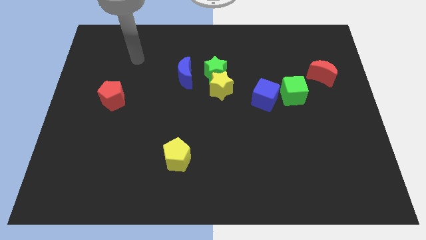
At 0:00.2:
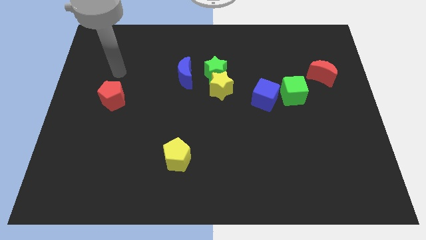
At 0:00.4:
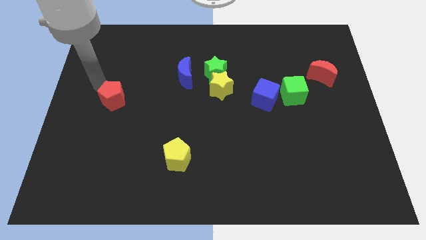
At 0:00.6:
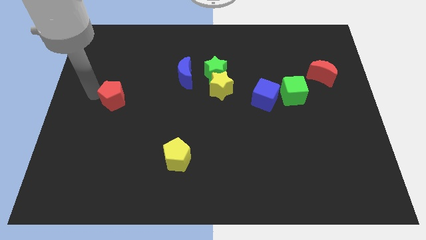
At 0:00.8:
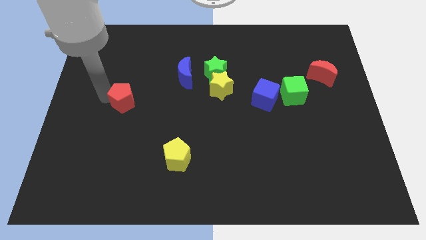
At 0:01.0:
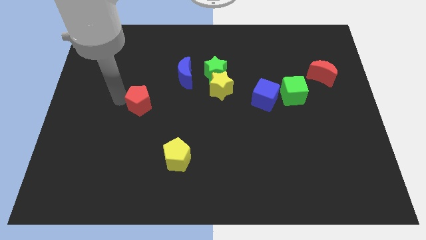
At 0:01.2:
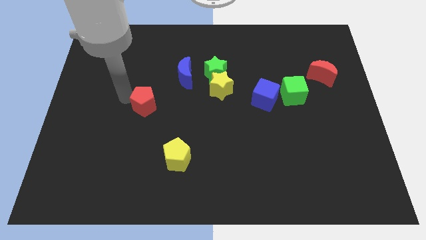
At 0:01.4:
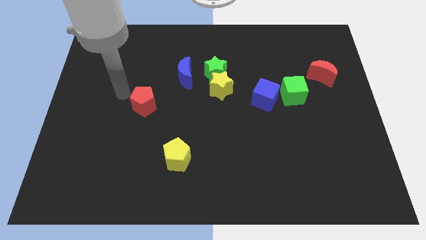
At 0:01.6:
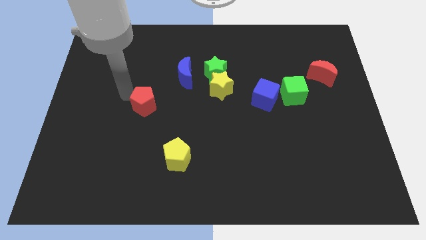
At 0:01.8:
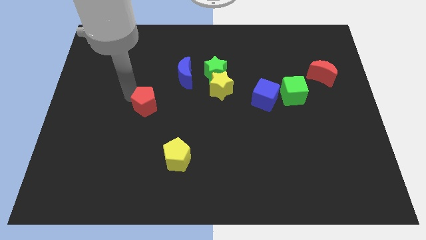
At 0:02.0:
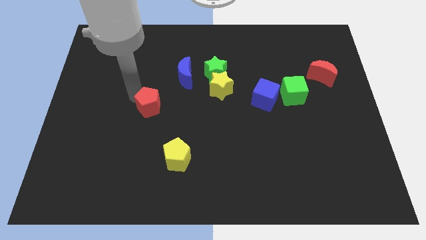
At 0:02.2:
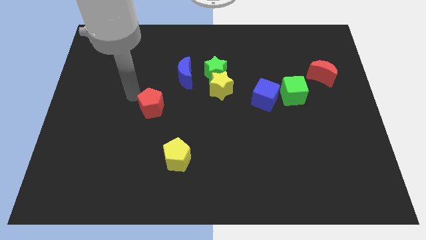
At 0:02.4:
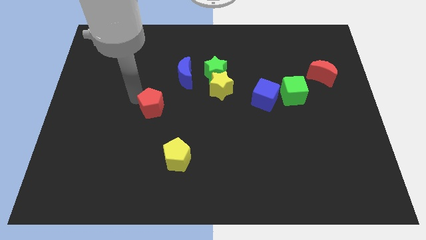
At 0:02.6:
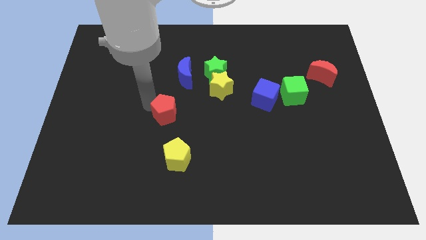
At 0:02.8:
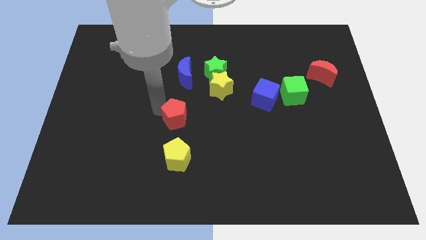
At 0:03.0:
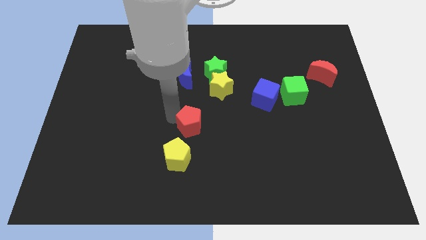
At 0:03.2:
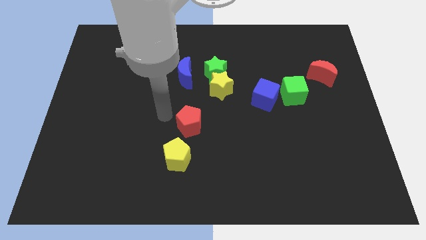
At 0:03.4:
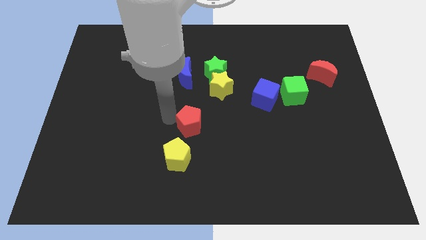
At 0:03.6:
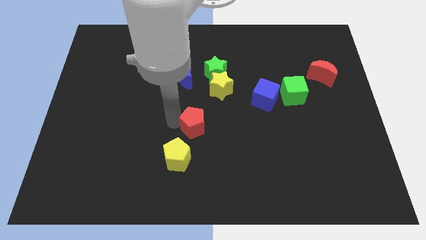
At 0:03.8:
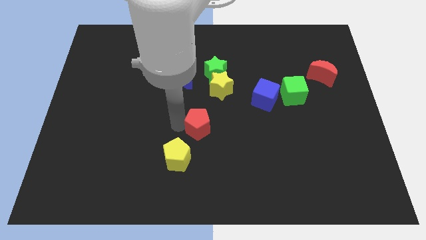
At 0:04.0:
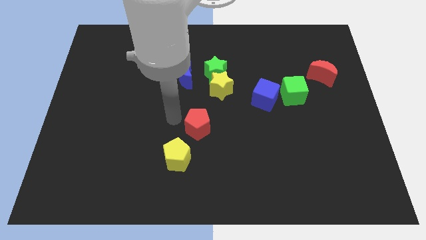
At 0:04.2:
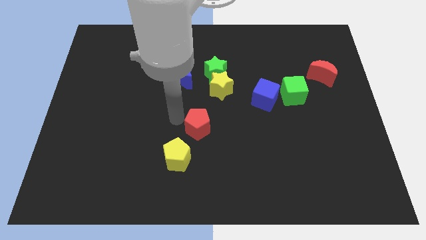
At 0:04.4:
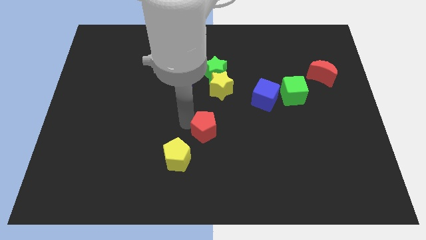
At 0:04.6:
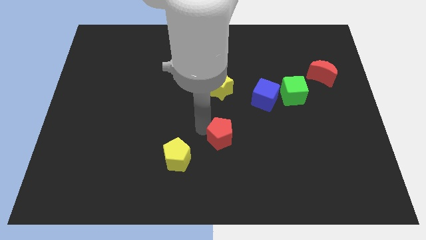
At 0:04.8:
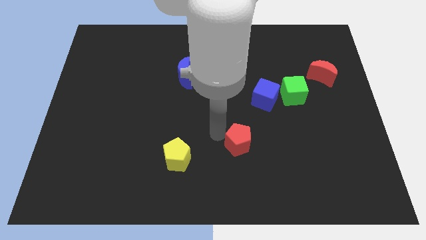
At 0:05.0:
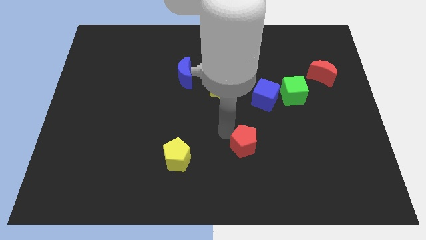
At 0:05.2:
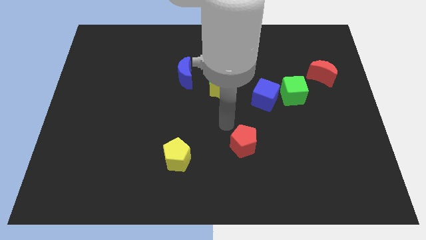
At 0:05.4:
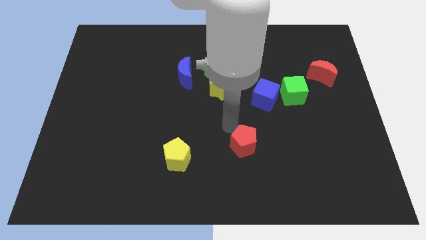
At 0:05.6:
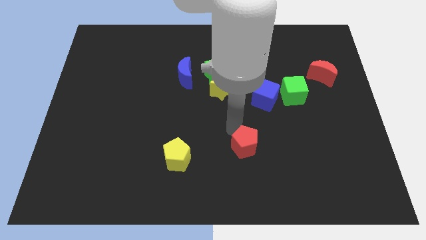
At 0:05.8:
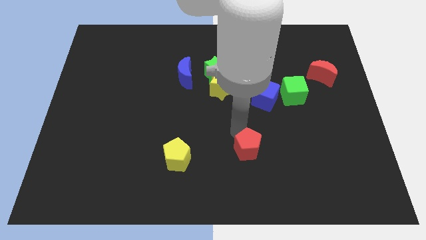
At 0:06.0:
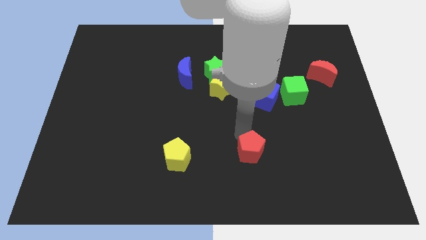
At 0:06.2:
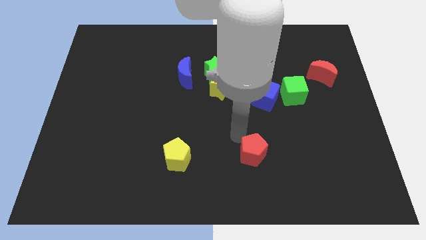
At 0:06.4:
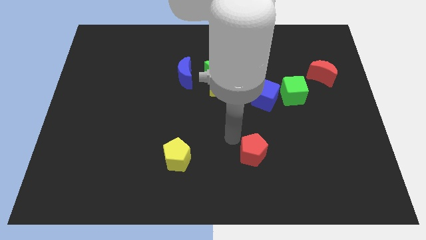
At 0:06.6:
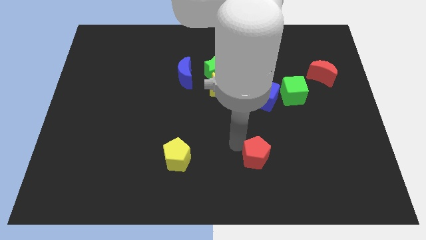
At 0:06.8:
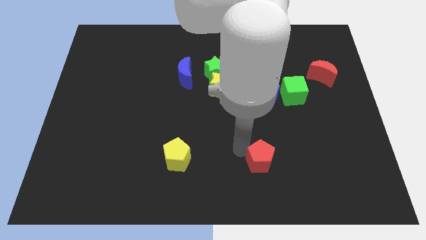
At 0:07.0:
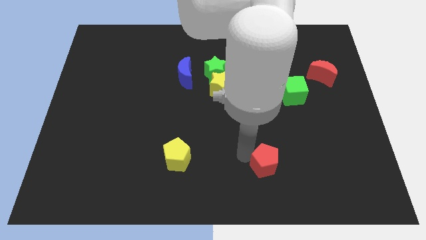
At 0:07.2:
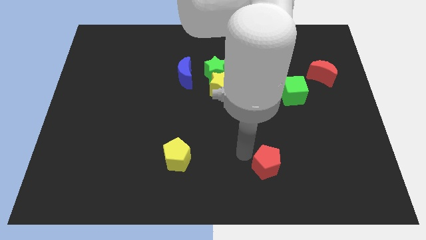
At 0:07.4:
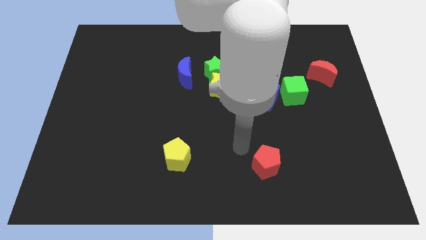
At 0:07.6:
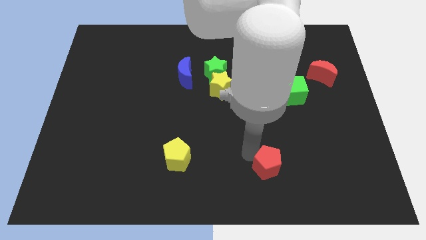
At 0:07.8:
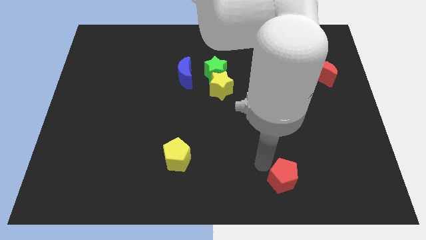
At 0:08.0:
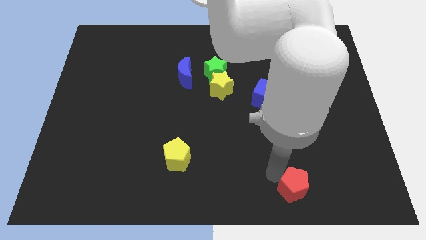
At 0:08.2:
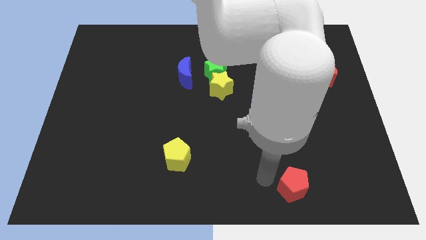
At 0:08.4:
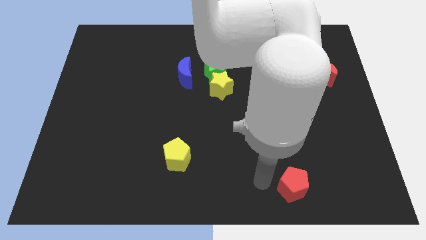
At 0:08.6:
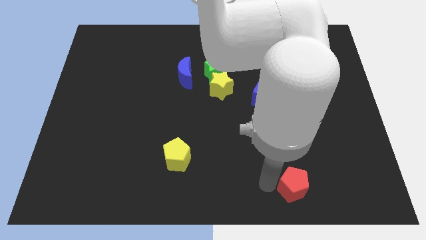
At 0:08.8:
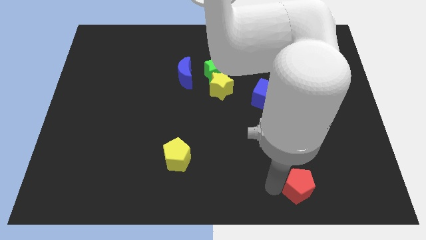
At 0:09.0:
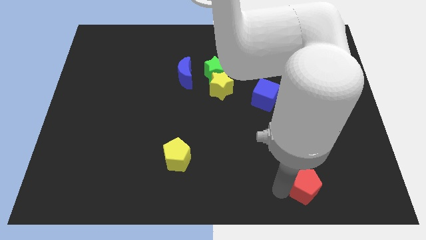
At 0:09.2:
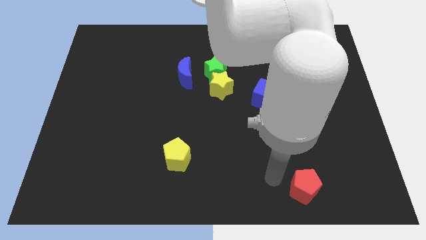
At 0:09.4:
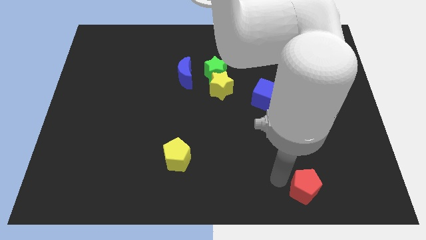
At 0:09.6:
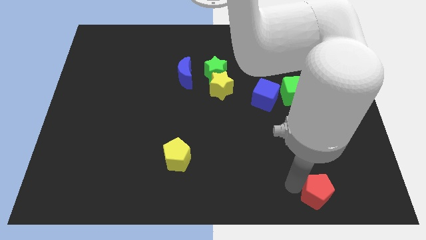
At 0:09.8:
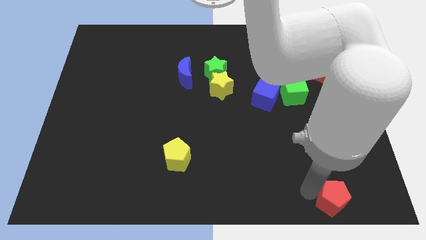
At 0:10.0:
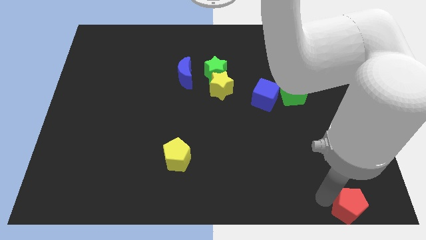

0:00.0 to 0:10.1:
push the red pentagon to the bottom right of the board

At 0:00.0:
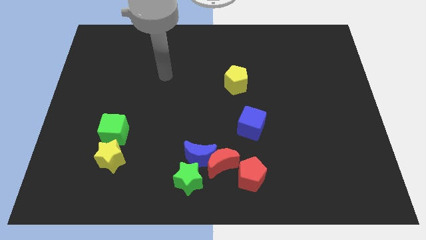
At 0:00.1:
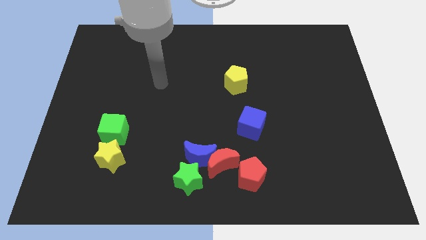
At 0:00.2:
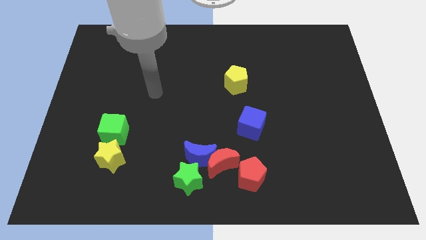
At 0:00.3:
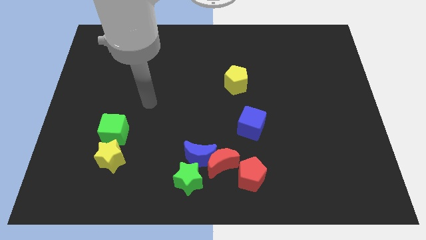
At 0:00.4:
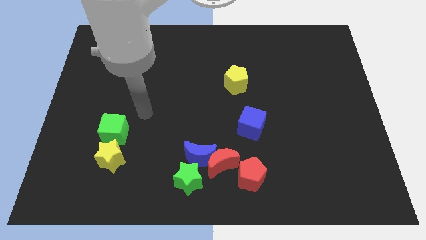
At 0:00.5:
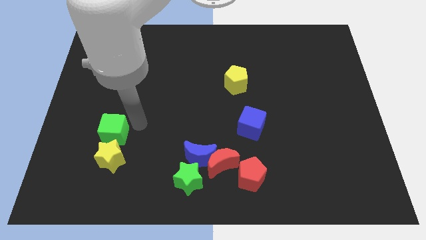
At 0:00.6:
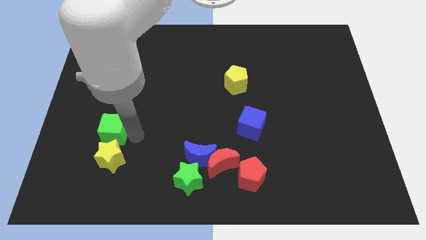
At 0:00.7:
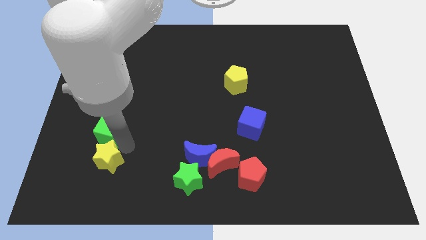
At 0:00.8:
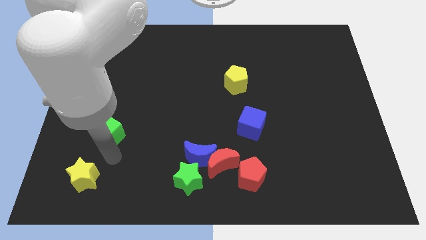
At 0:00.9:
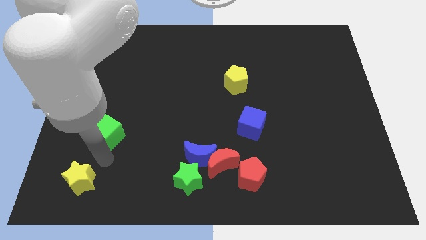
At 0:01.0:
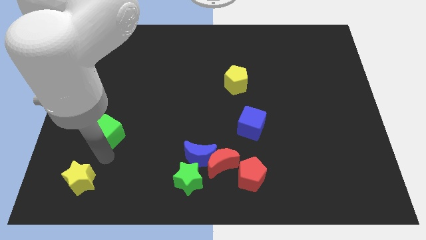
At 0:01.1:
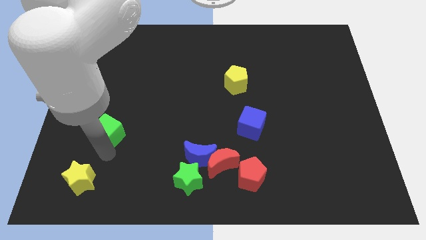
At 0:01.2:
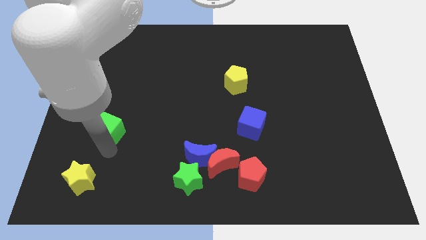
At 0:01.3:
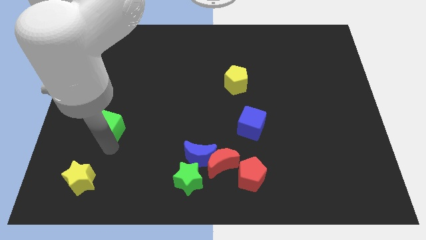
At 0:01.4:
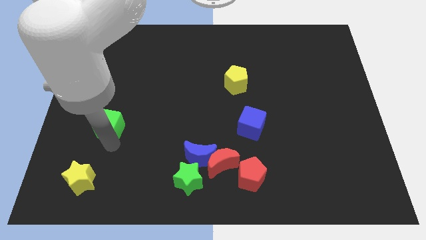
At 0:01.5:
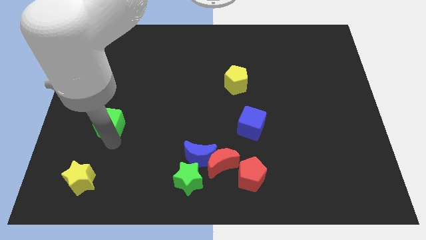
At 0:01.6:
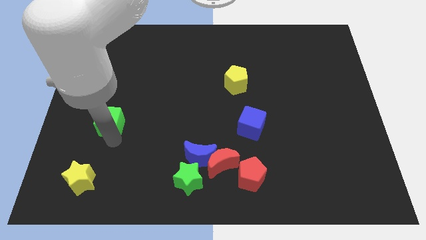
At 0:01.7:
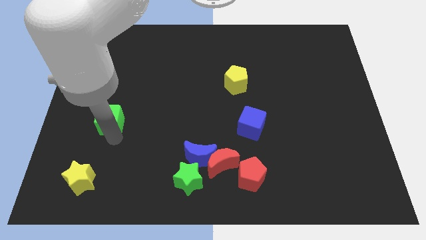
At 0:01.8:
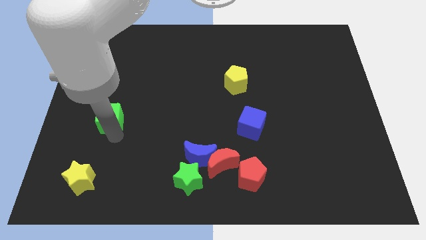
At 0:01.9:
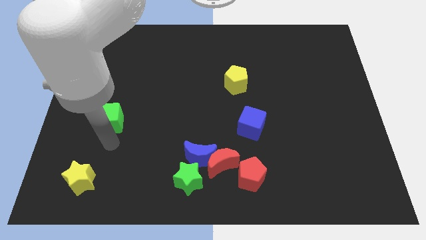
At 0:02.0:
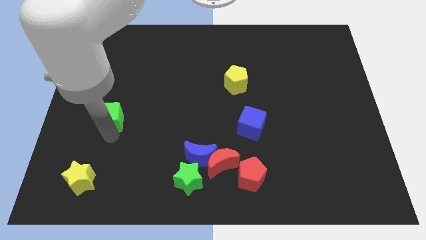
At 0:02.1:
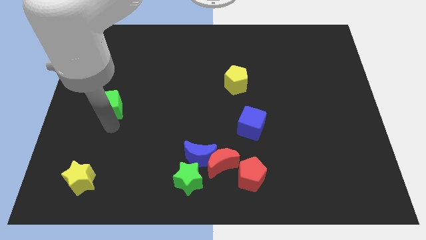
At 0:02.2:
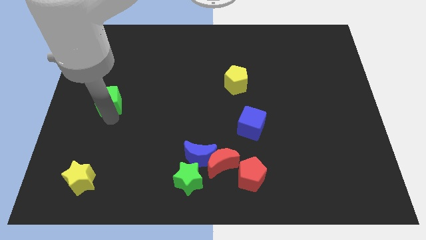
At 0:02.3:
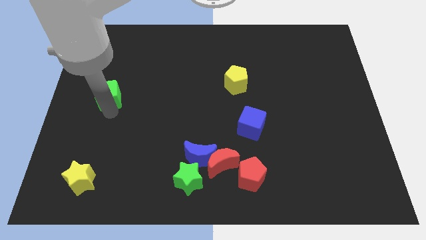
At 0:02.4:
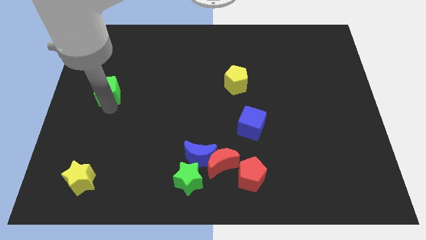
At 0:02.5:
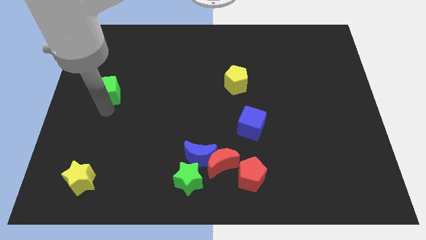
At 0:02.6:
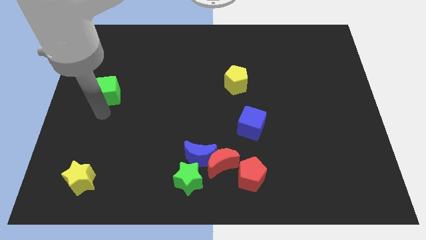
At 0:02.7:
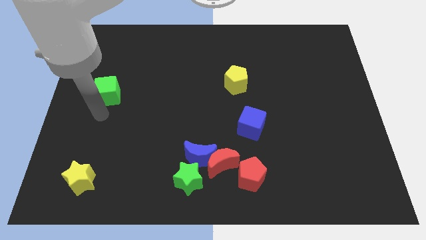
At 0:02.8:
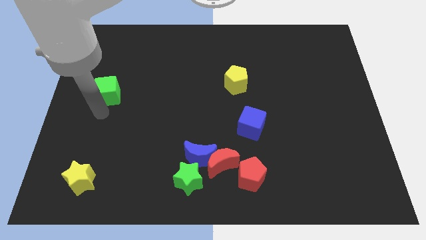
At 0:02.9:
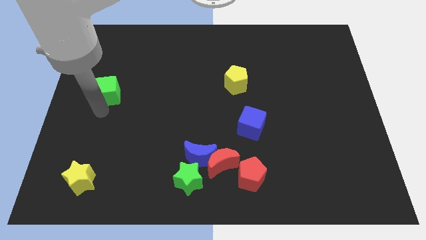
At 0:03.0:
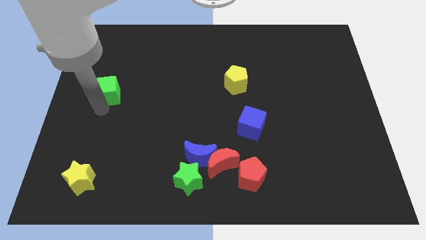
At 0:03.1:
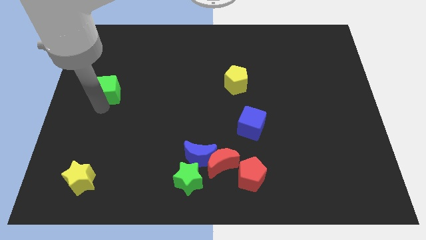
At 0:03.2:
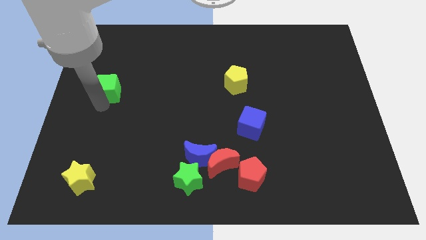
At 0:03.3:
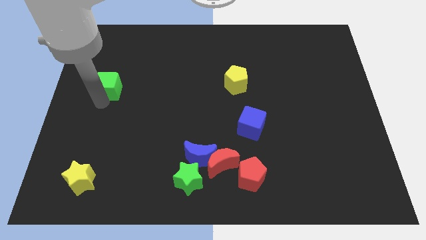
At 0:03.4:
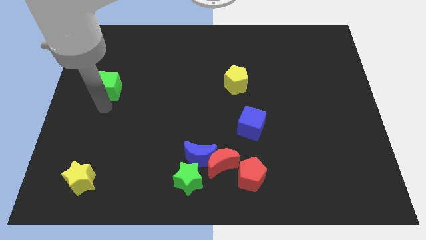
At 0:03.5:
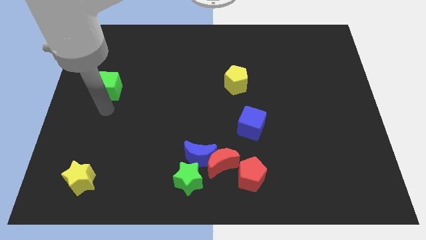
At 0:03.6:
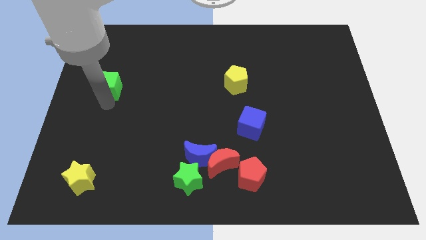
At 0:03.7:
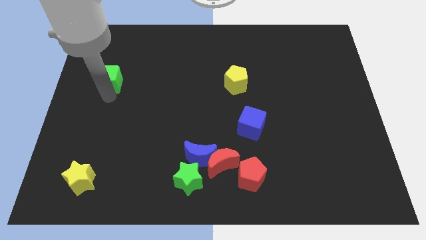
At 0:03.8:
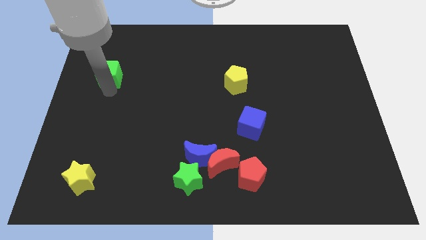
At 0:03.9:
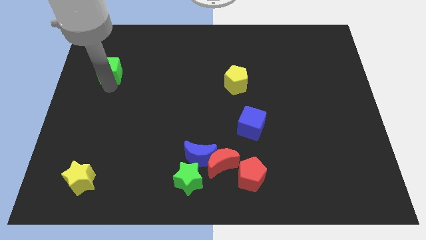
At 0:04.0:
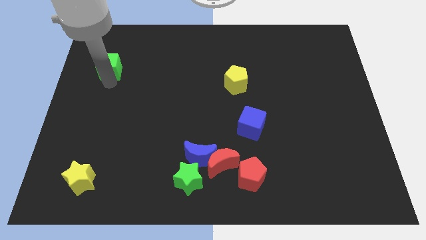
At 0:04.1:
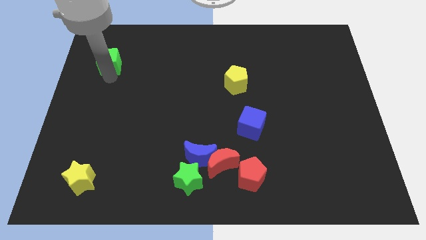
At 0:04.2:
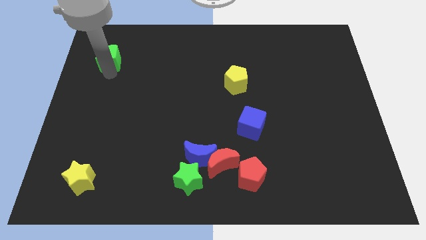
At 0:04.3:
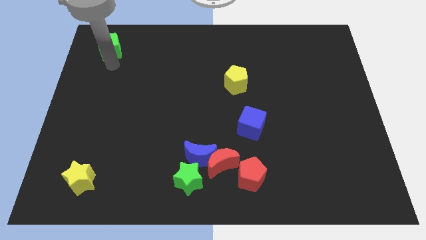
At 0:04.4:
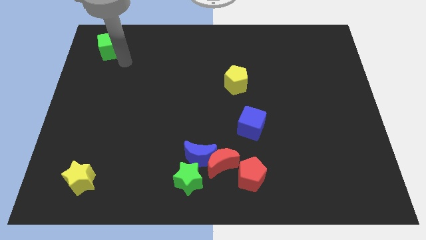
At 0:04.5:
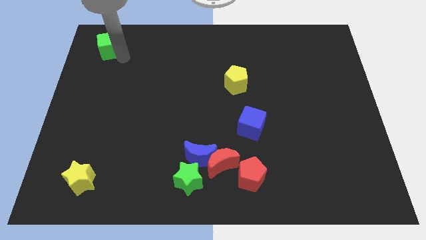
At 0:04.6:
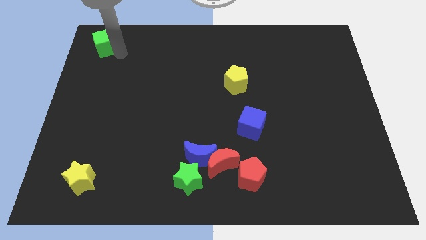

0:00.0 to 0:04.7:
slide the green cube to the upper left corner
